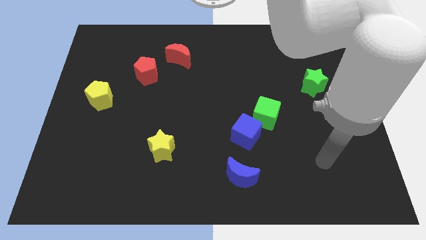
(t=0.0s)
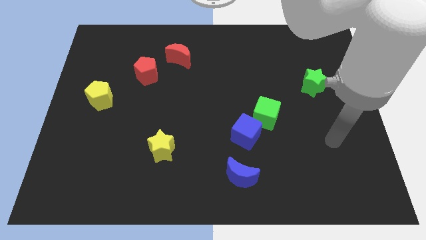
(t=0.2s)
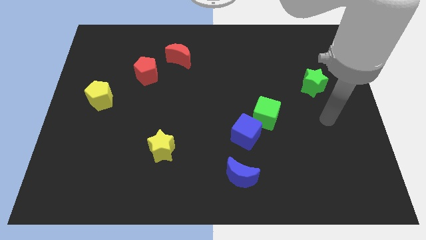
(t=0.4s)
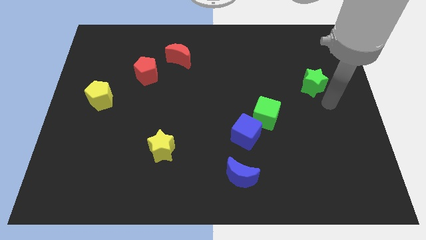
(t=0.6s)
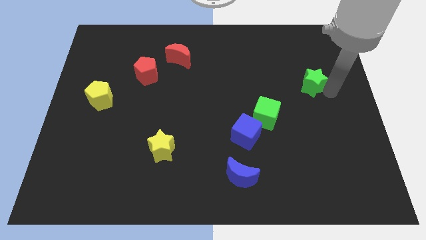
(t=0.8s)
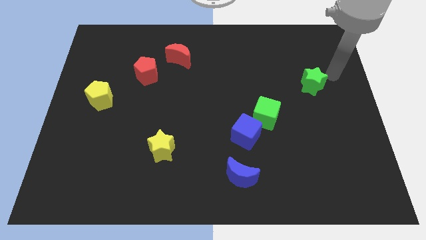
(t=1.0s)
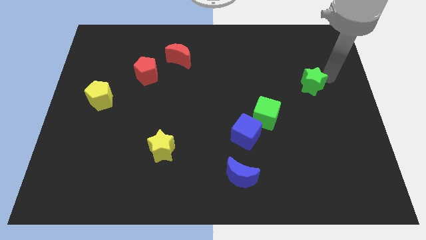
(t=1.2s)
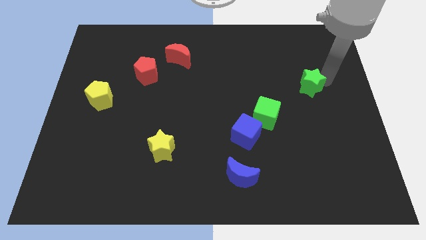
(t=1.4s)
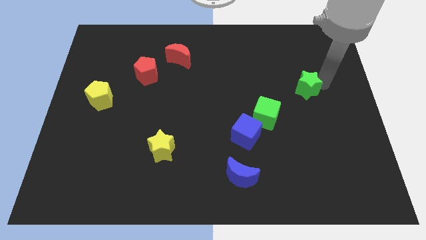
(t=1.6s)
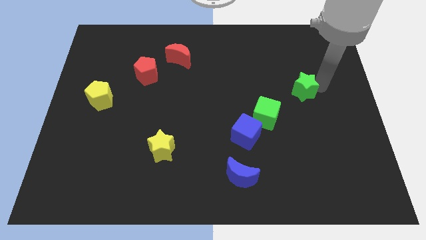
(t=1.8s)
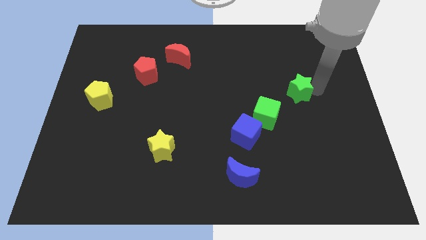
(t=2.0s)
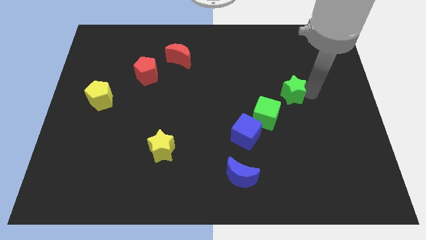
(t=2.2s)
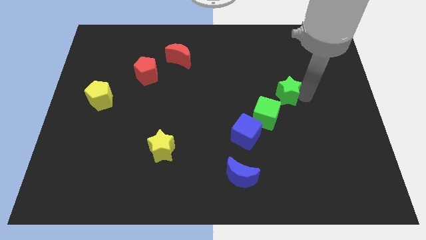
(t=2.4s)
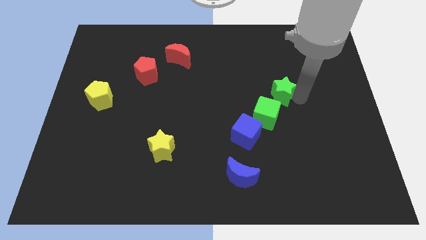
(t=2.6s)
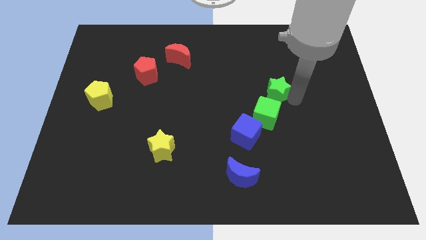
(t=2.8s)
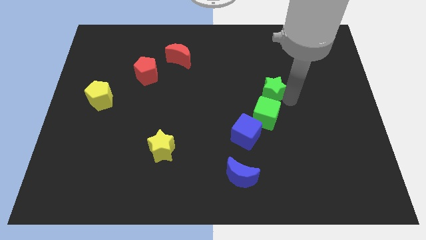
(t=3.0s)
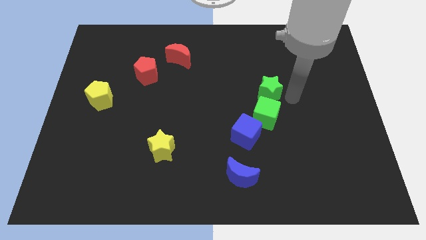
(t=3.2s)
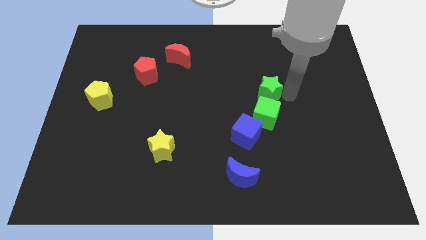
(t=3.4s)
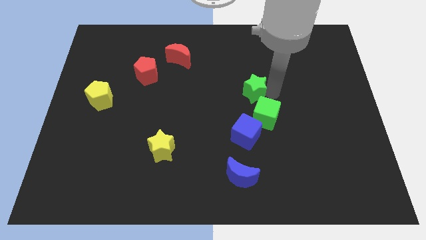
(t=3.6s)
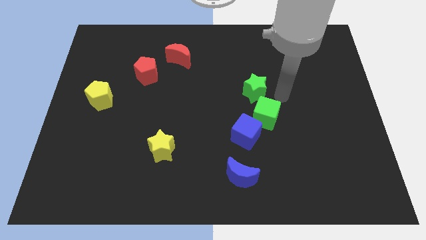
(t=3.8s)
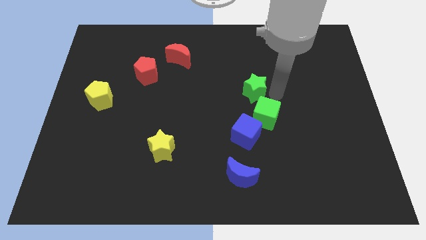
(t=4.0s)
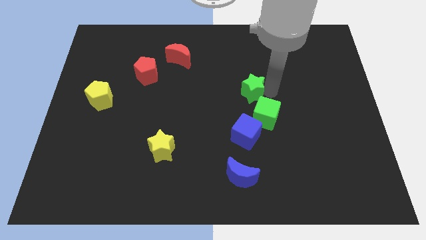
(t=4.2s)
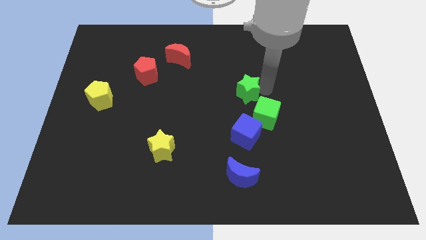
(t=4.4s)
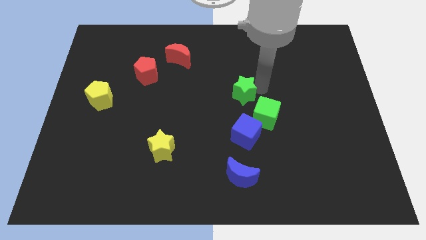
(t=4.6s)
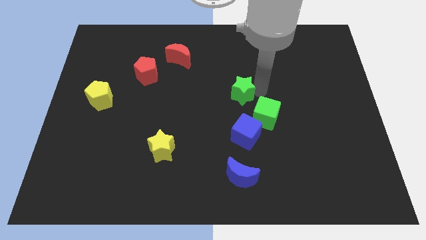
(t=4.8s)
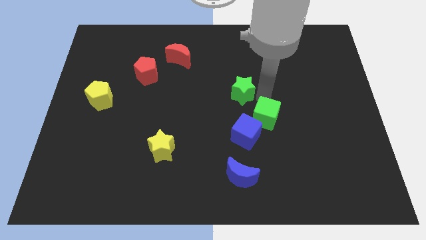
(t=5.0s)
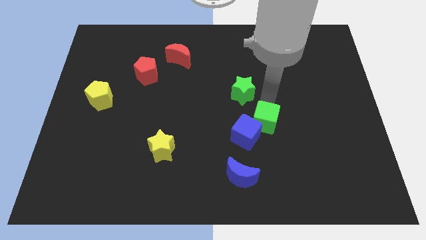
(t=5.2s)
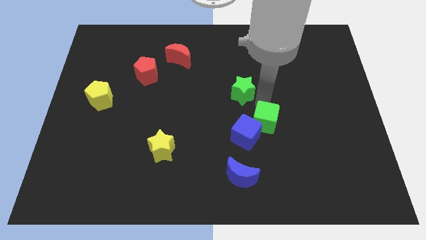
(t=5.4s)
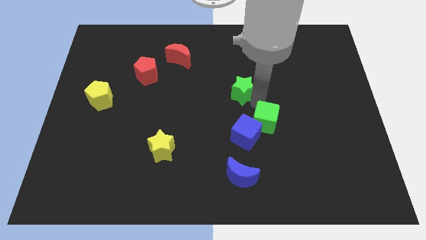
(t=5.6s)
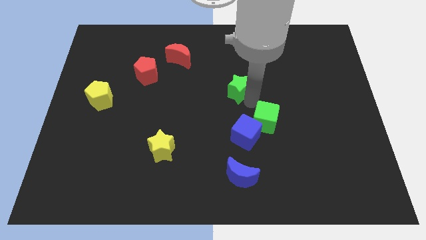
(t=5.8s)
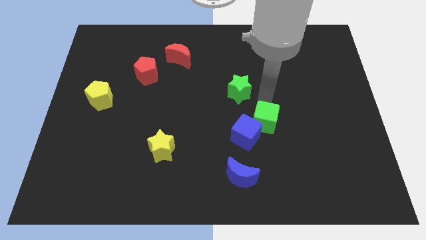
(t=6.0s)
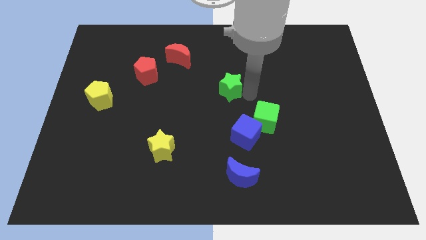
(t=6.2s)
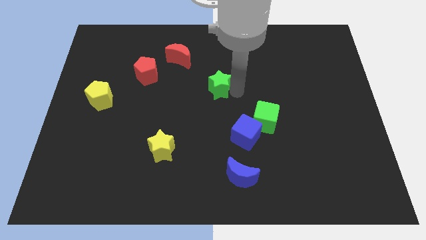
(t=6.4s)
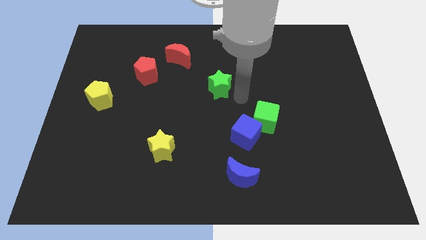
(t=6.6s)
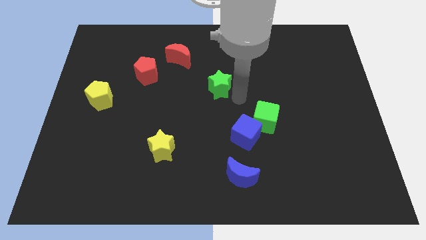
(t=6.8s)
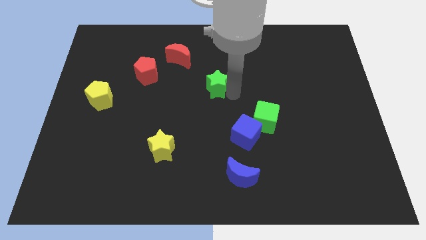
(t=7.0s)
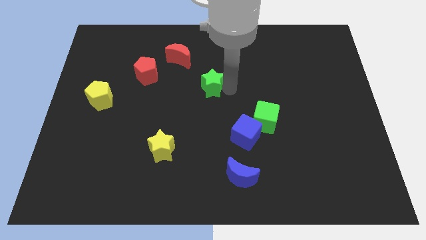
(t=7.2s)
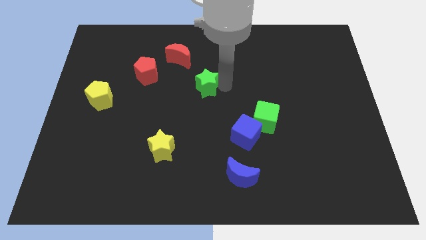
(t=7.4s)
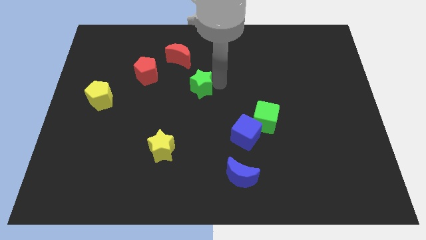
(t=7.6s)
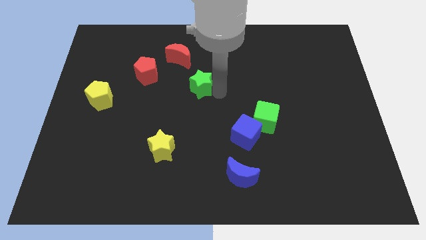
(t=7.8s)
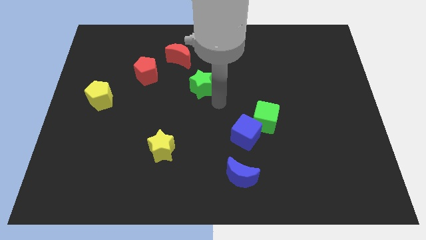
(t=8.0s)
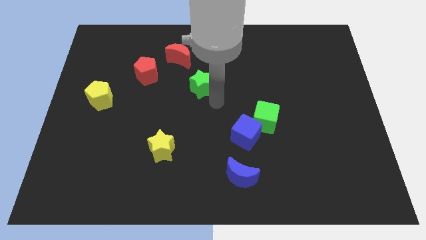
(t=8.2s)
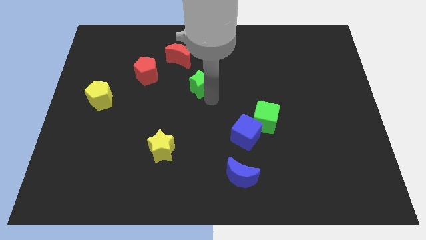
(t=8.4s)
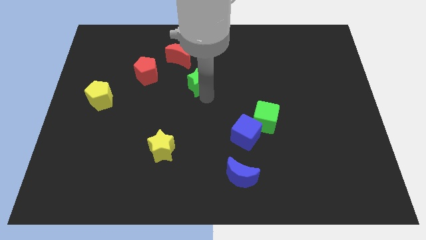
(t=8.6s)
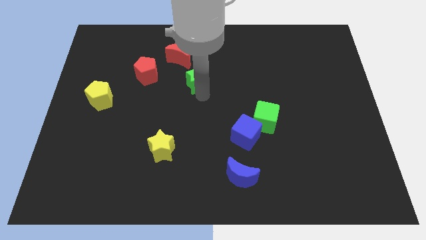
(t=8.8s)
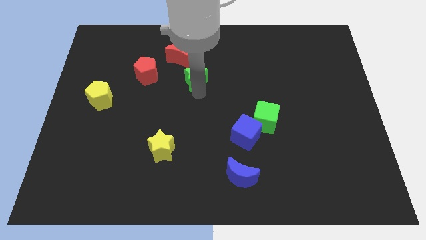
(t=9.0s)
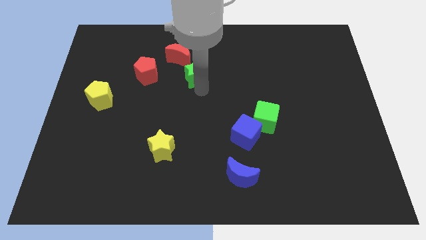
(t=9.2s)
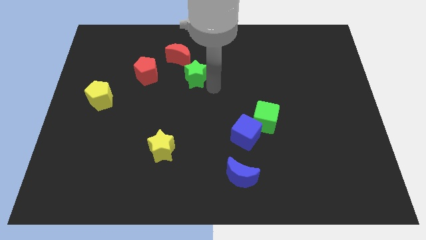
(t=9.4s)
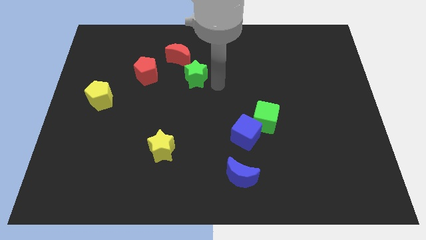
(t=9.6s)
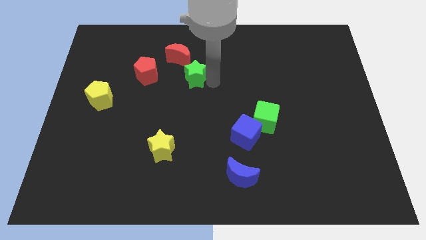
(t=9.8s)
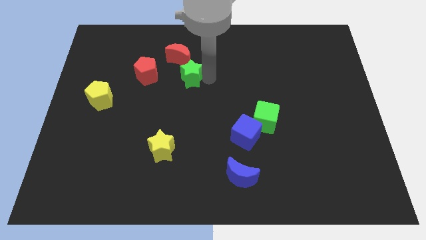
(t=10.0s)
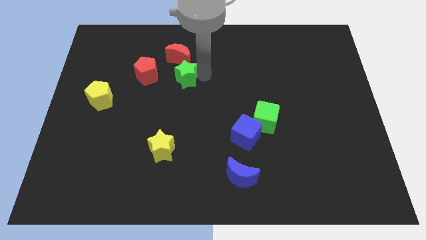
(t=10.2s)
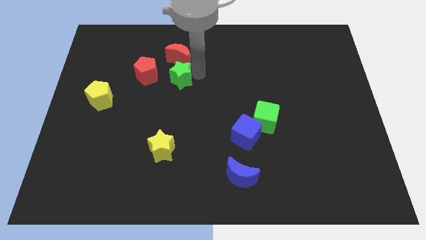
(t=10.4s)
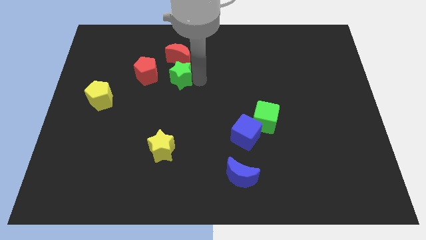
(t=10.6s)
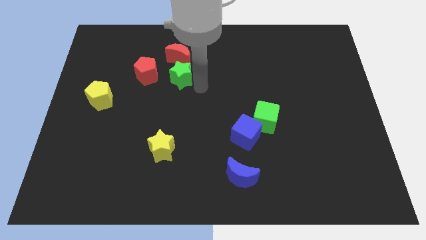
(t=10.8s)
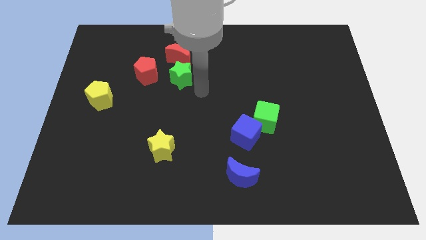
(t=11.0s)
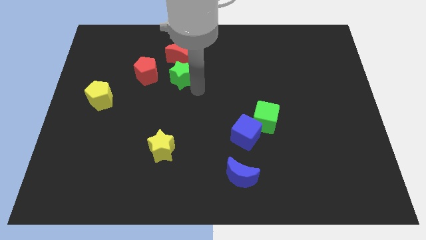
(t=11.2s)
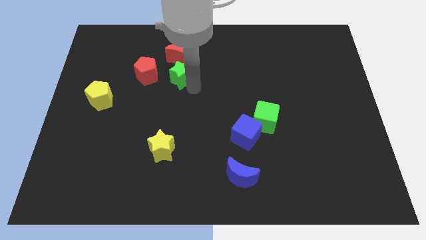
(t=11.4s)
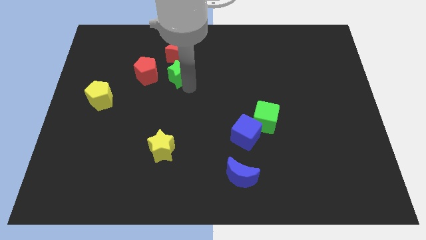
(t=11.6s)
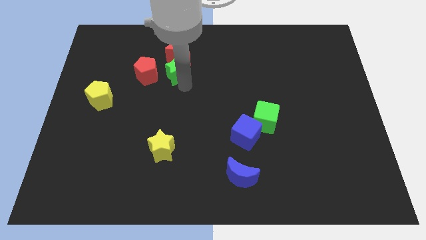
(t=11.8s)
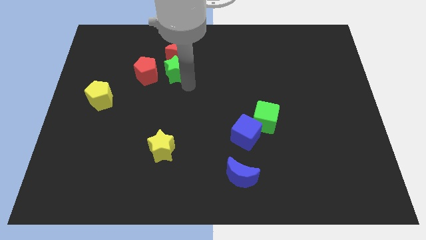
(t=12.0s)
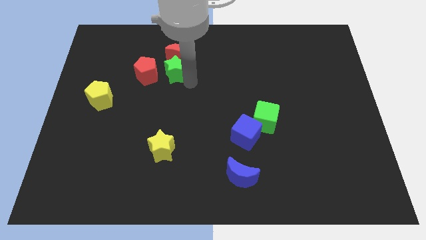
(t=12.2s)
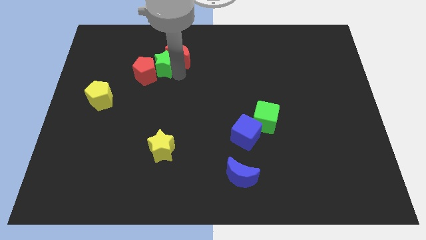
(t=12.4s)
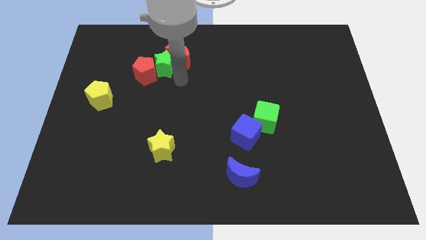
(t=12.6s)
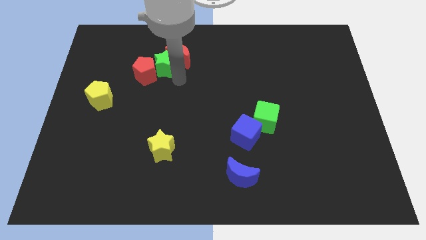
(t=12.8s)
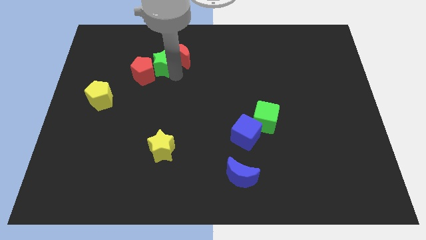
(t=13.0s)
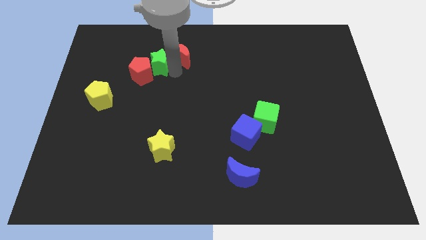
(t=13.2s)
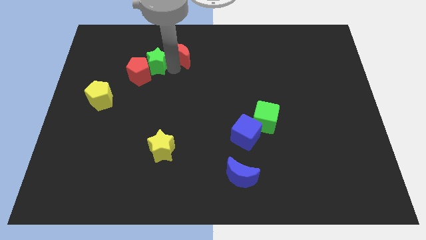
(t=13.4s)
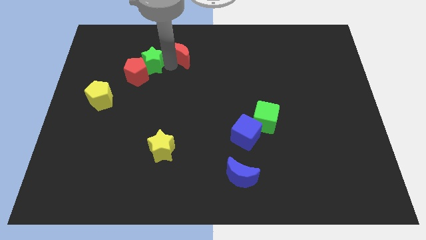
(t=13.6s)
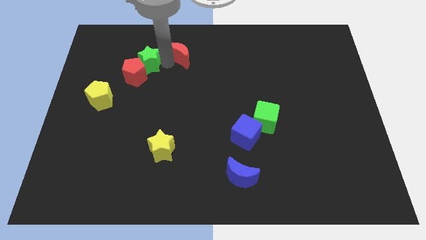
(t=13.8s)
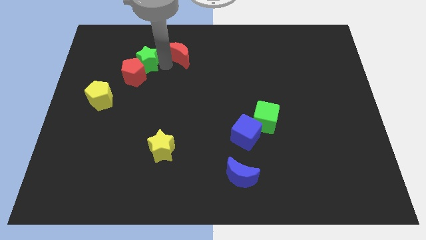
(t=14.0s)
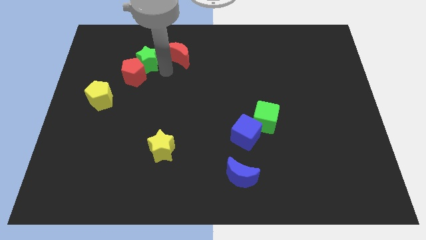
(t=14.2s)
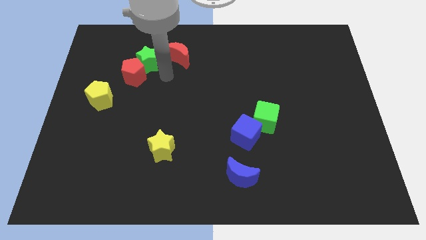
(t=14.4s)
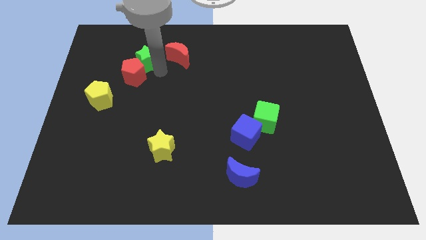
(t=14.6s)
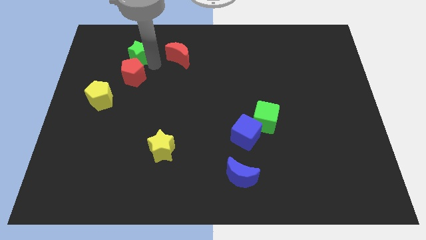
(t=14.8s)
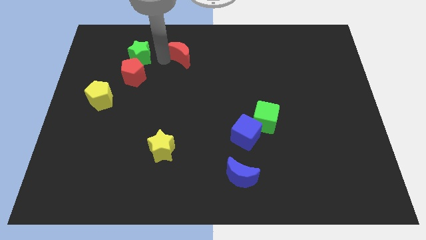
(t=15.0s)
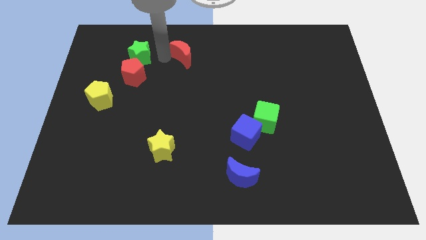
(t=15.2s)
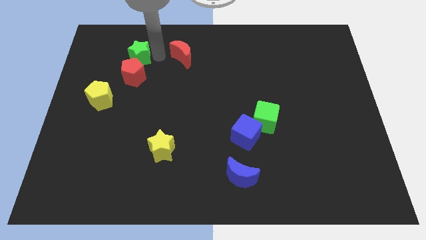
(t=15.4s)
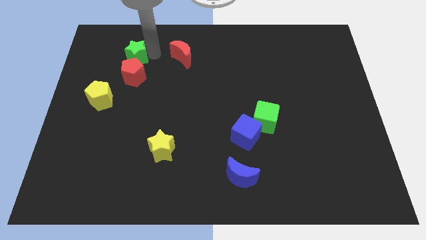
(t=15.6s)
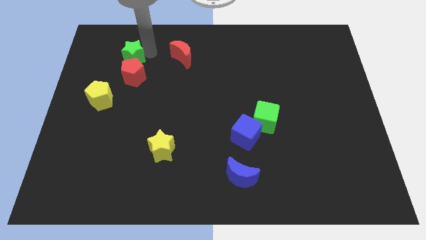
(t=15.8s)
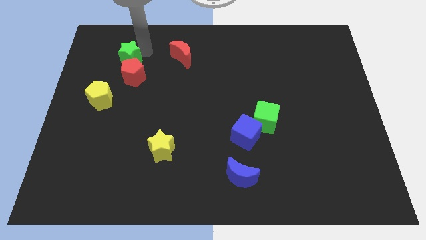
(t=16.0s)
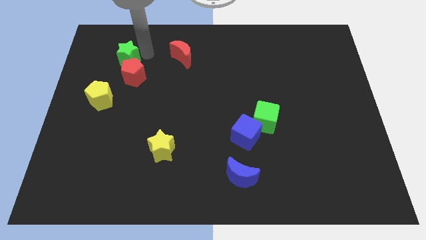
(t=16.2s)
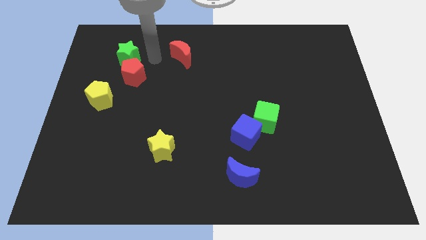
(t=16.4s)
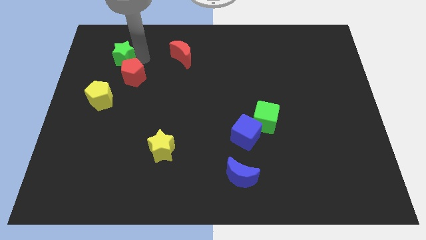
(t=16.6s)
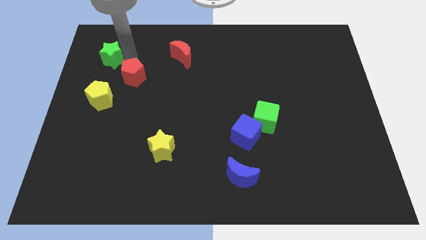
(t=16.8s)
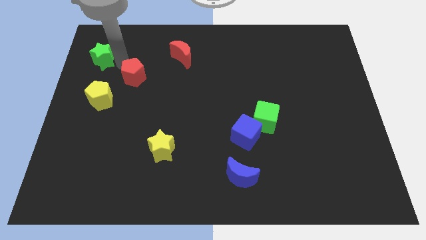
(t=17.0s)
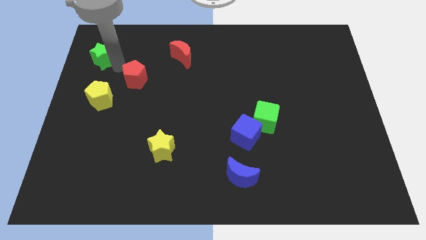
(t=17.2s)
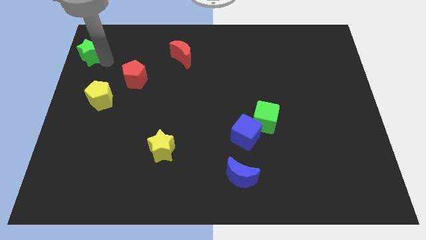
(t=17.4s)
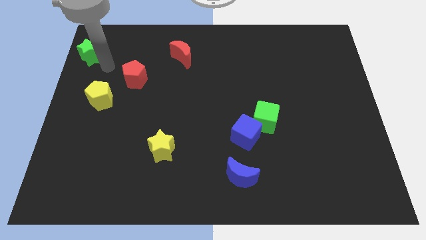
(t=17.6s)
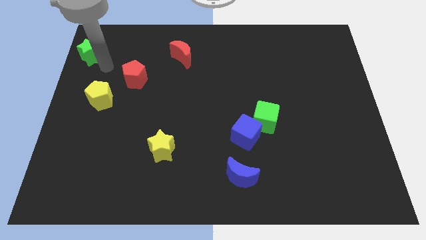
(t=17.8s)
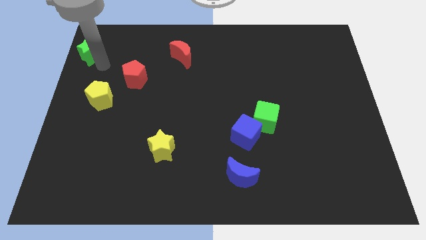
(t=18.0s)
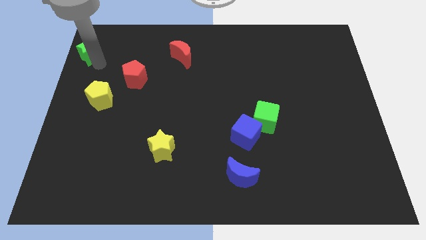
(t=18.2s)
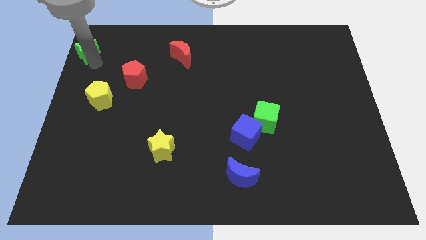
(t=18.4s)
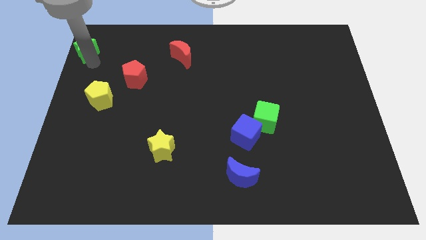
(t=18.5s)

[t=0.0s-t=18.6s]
slide the green star to the top left corner
